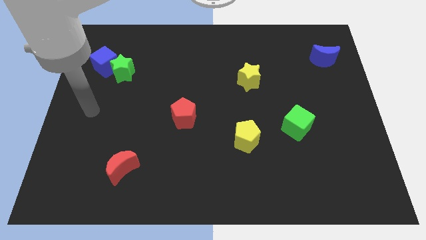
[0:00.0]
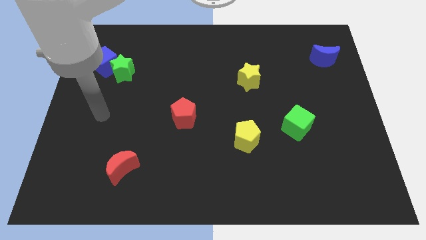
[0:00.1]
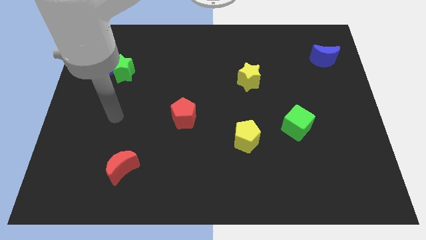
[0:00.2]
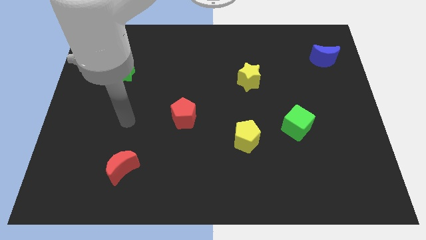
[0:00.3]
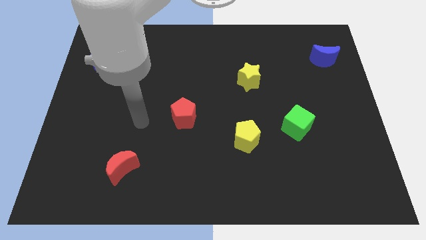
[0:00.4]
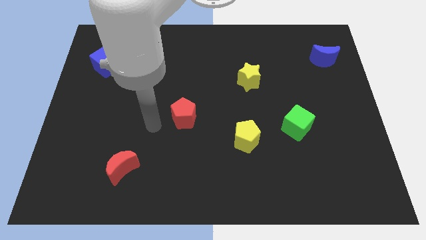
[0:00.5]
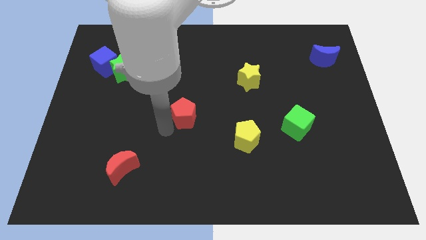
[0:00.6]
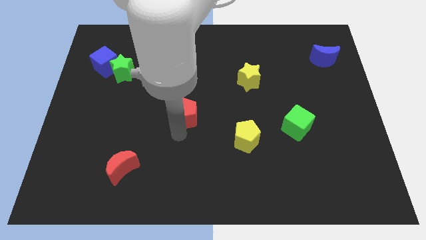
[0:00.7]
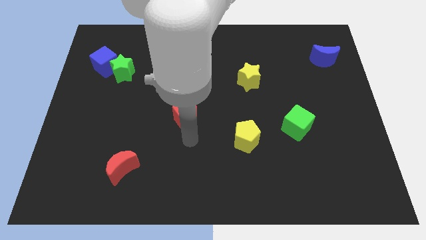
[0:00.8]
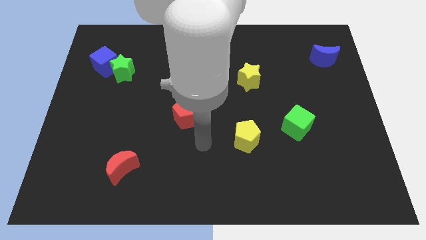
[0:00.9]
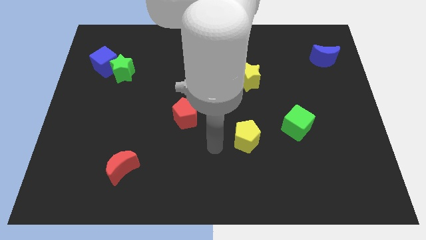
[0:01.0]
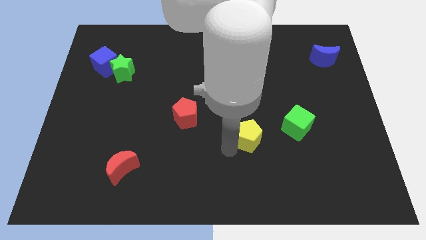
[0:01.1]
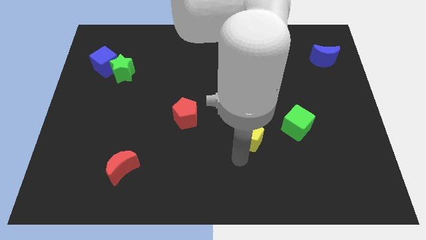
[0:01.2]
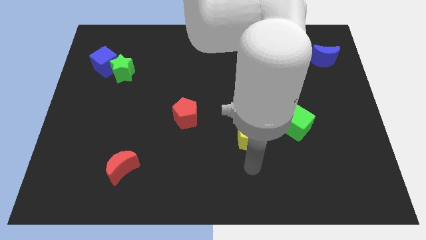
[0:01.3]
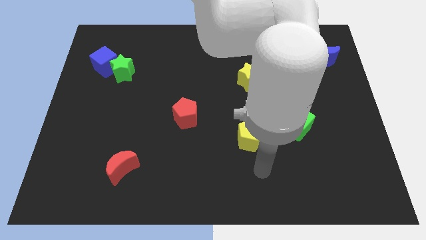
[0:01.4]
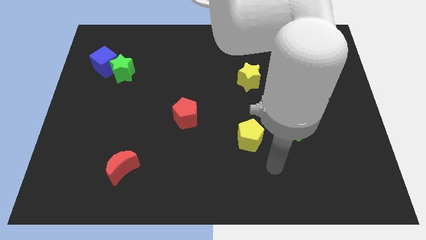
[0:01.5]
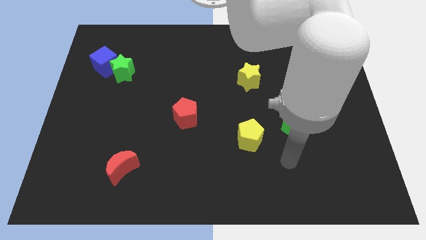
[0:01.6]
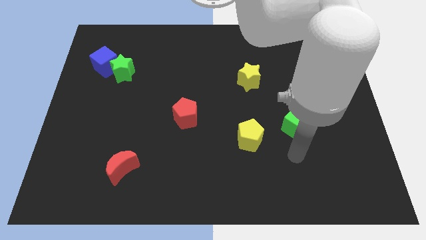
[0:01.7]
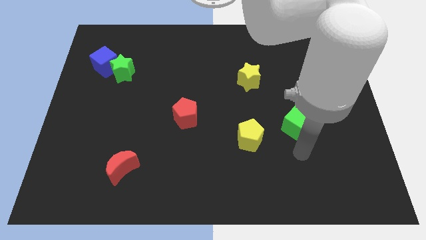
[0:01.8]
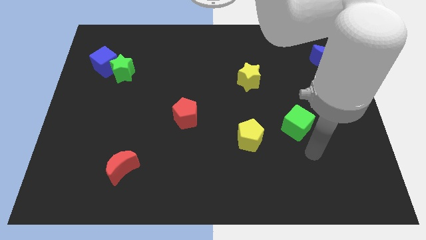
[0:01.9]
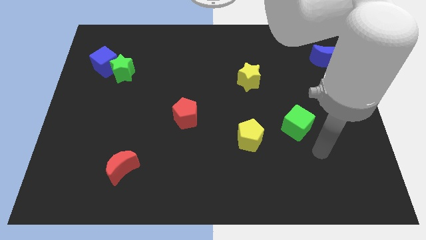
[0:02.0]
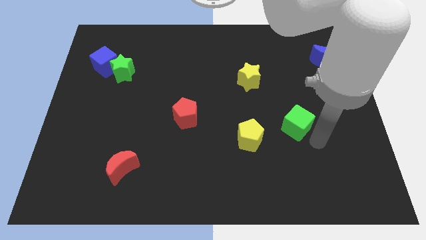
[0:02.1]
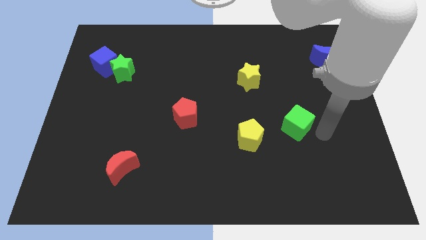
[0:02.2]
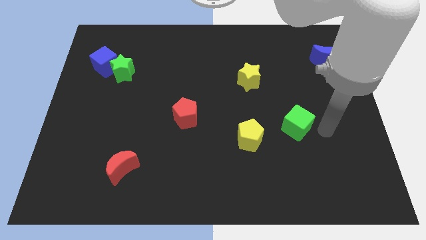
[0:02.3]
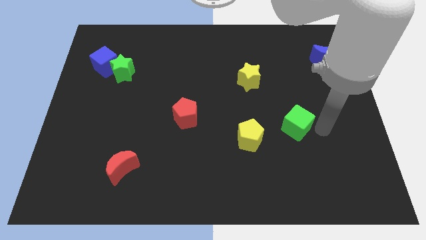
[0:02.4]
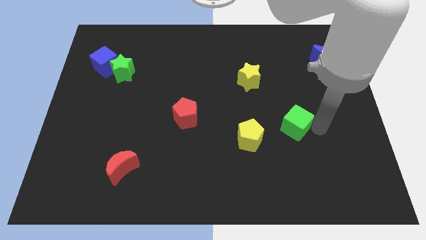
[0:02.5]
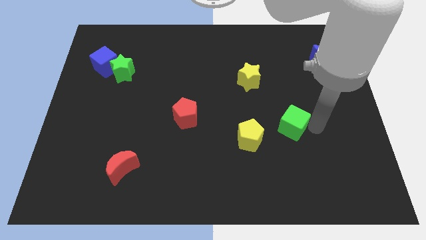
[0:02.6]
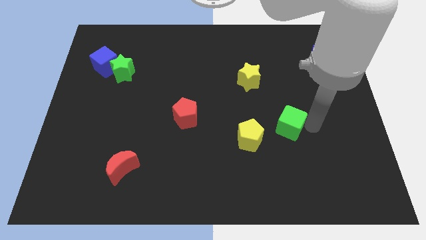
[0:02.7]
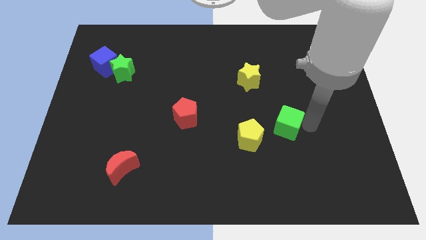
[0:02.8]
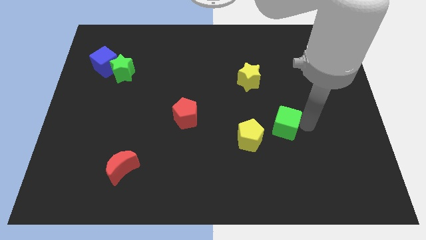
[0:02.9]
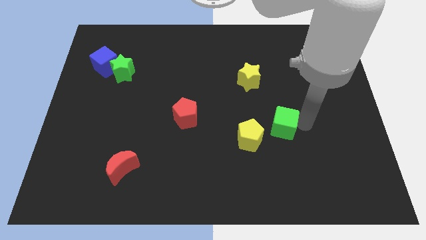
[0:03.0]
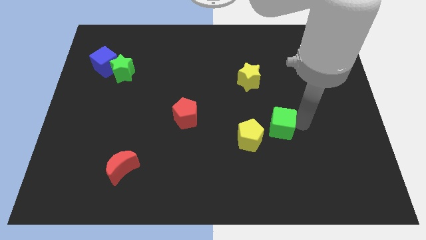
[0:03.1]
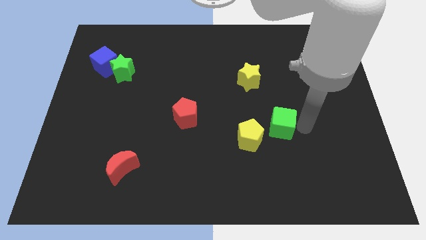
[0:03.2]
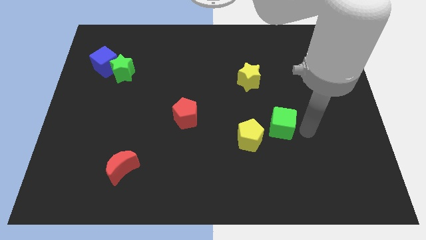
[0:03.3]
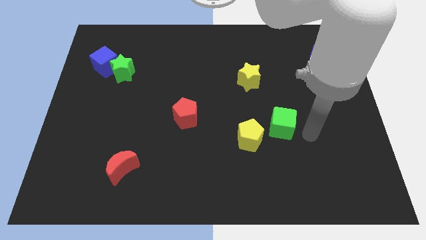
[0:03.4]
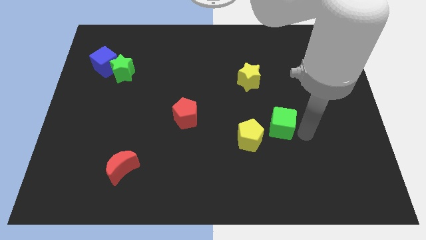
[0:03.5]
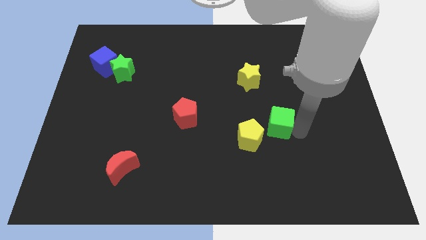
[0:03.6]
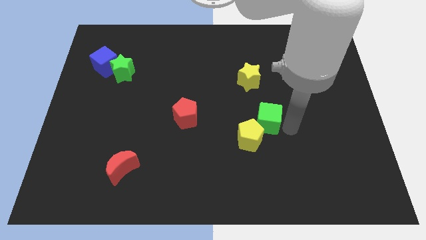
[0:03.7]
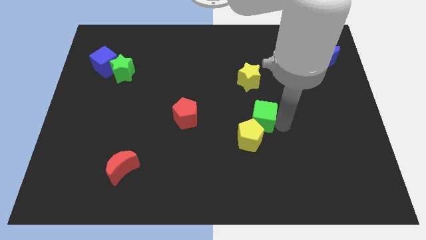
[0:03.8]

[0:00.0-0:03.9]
move the green cube to the left a little bit

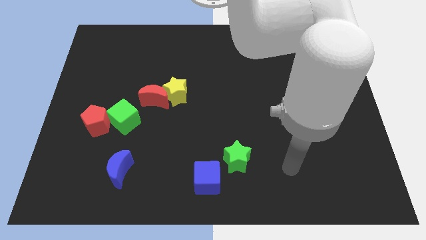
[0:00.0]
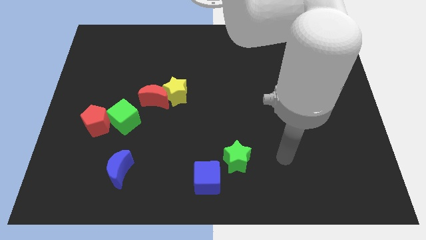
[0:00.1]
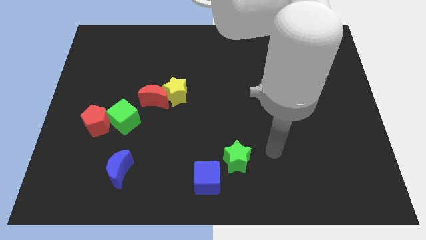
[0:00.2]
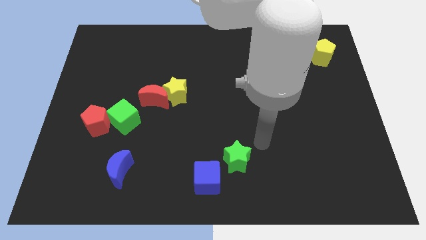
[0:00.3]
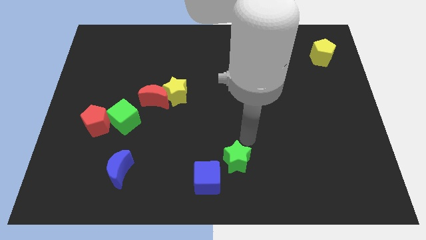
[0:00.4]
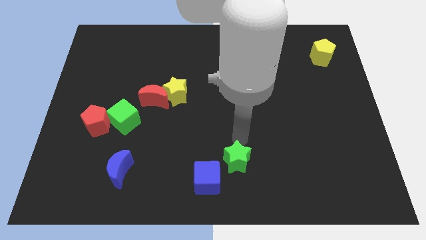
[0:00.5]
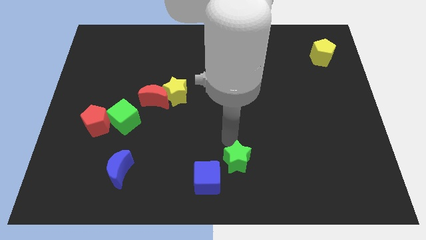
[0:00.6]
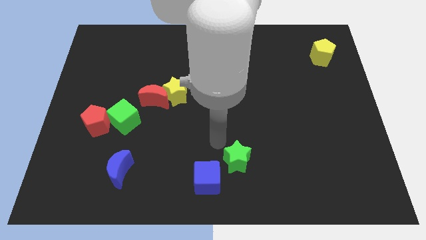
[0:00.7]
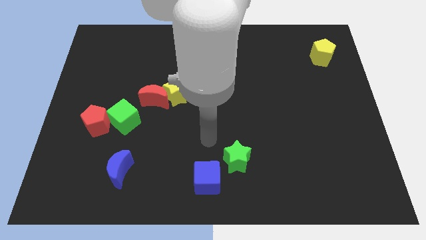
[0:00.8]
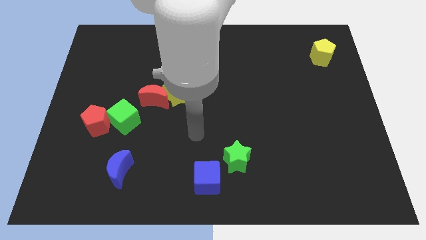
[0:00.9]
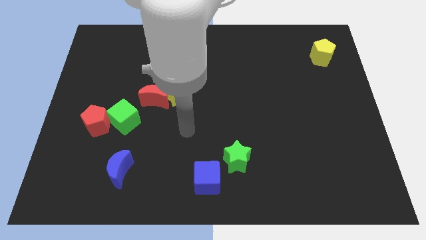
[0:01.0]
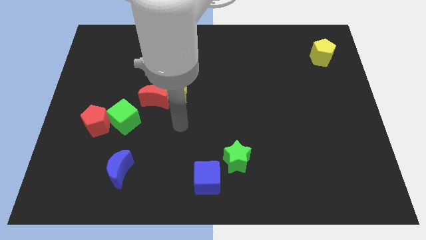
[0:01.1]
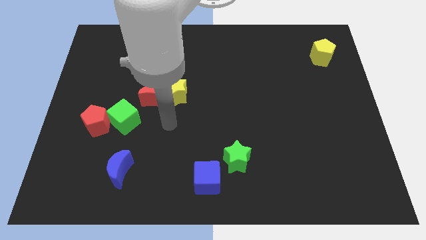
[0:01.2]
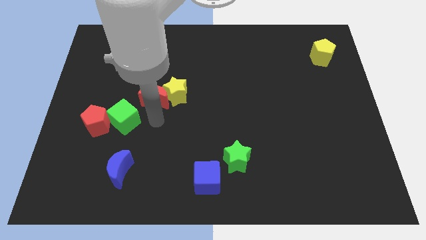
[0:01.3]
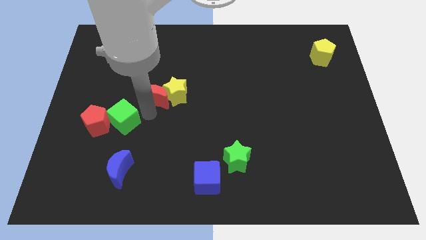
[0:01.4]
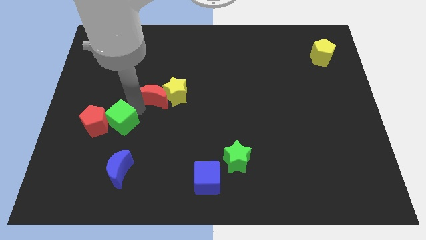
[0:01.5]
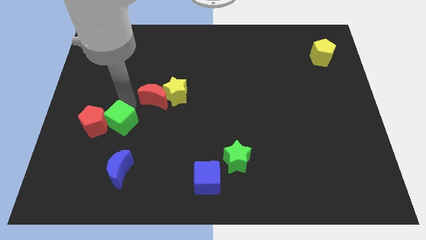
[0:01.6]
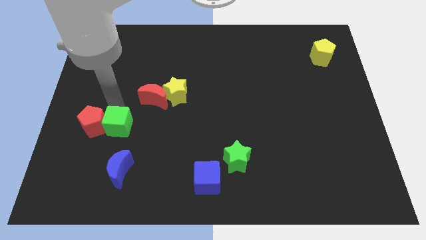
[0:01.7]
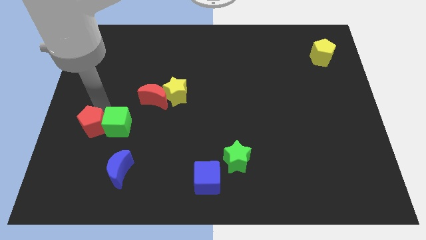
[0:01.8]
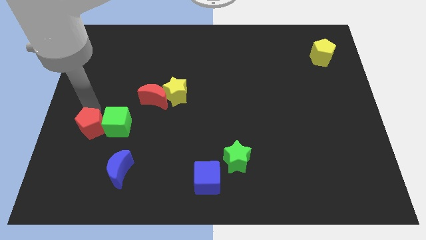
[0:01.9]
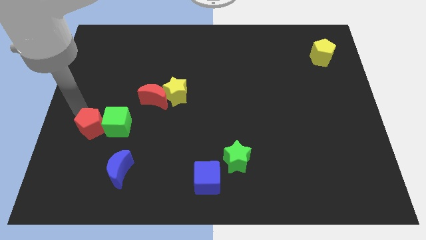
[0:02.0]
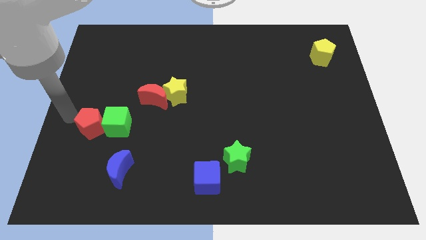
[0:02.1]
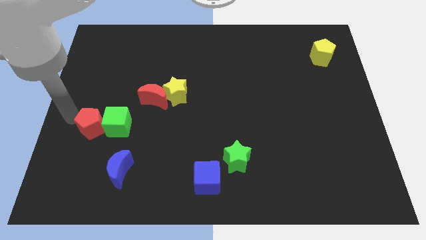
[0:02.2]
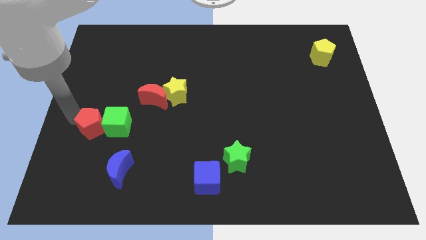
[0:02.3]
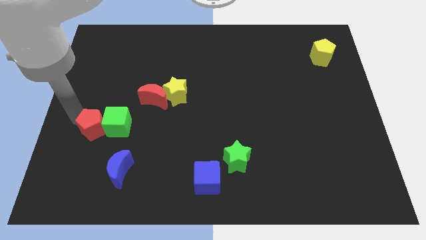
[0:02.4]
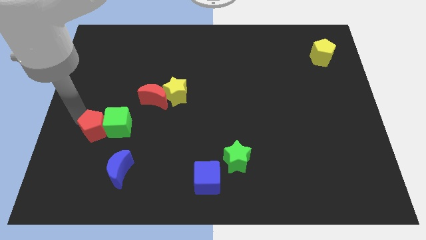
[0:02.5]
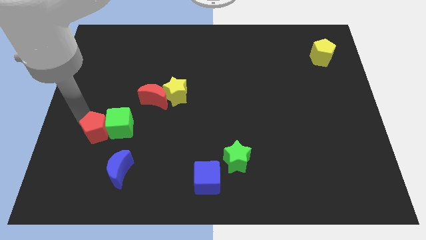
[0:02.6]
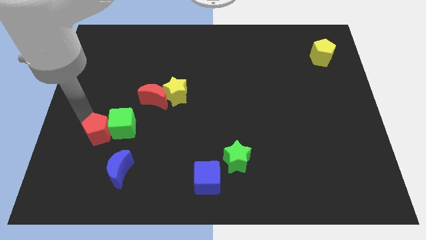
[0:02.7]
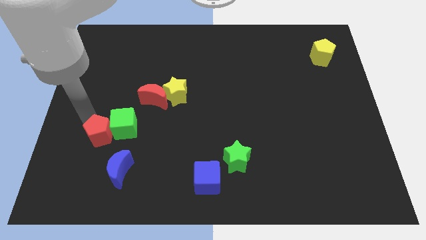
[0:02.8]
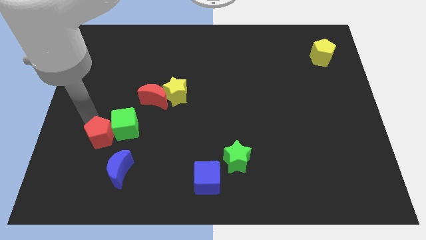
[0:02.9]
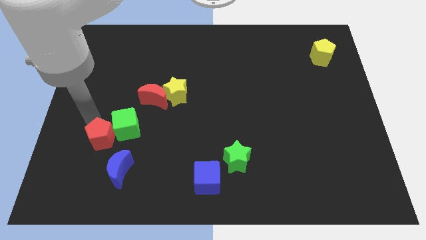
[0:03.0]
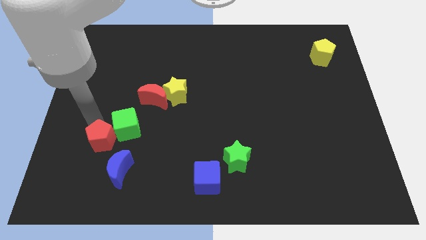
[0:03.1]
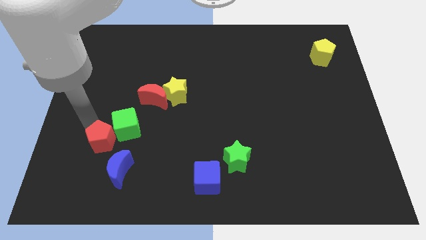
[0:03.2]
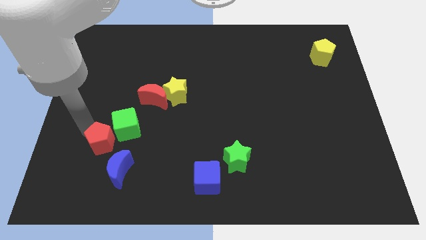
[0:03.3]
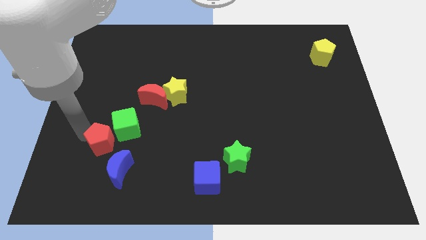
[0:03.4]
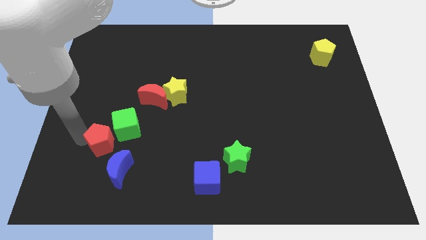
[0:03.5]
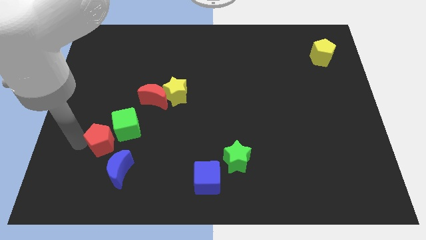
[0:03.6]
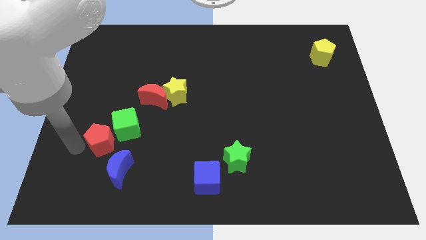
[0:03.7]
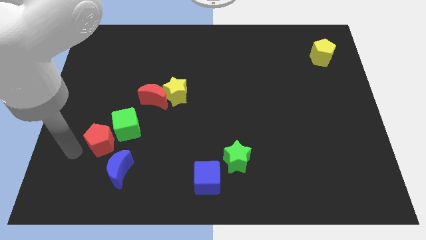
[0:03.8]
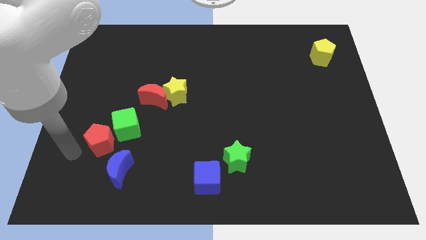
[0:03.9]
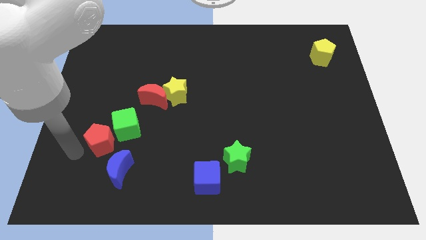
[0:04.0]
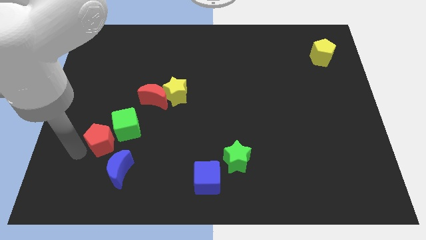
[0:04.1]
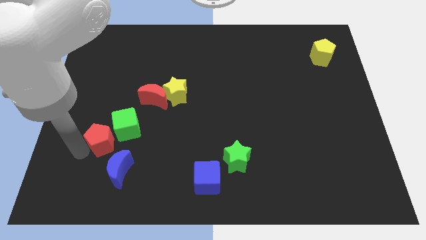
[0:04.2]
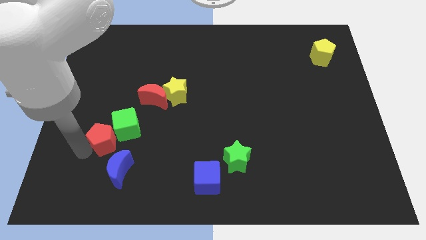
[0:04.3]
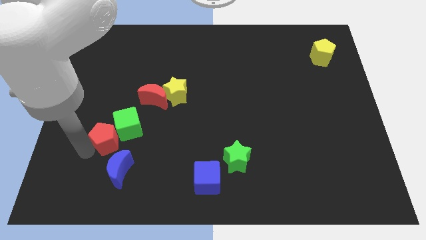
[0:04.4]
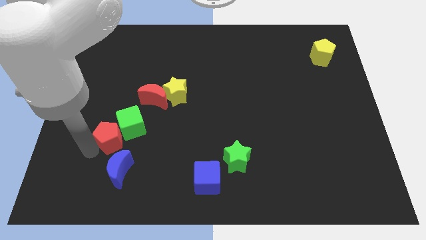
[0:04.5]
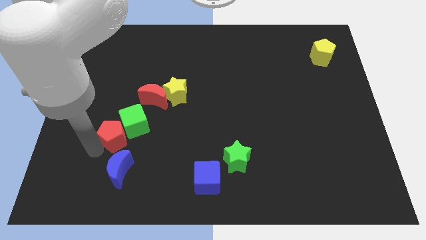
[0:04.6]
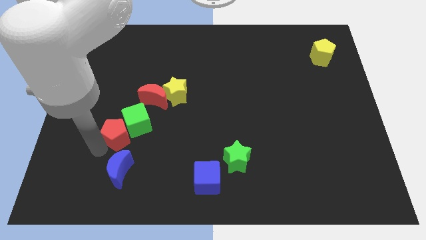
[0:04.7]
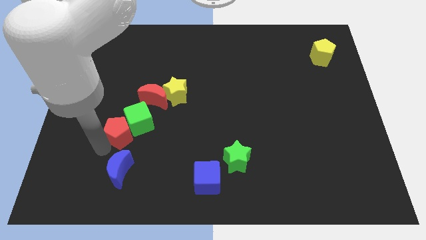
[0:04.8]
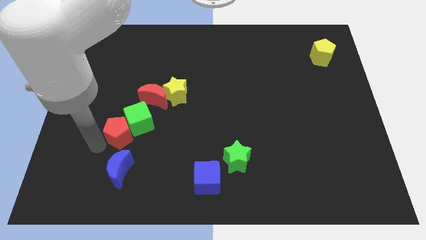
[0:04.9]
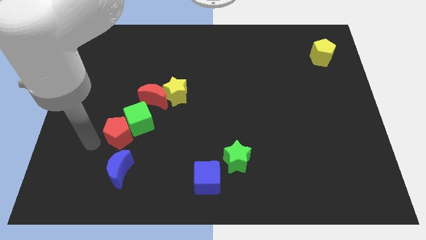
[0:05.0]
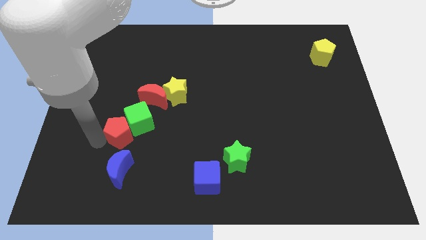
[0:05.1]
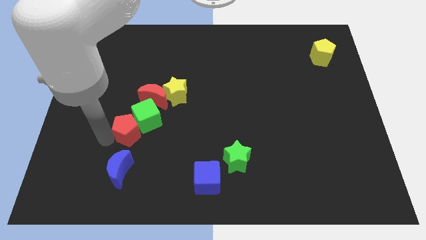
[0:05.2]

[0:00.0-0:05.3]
slightly push the red pentagon right
